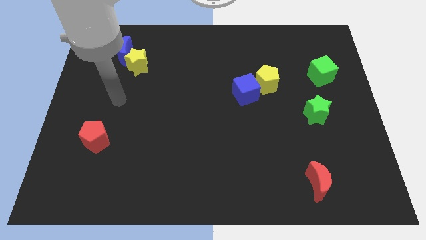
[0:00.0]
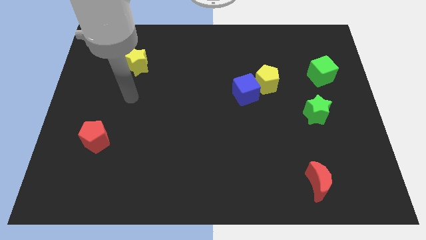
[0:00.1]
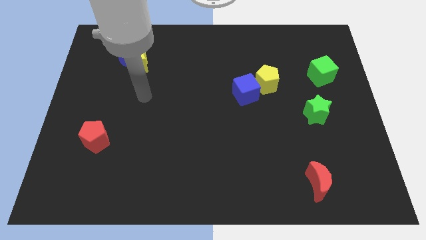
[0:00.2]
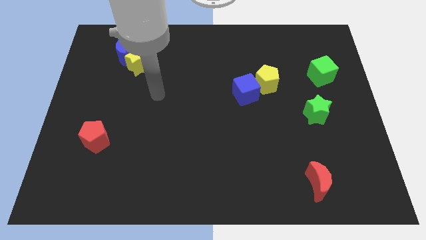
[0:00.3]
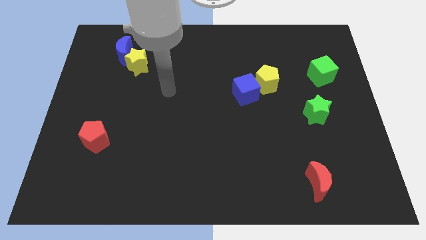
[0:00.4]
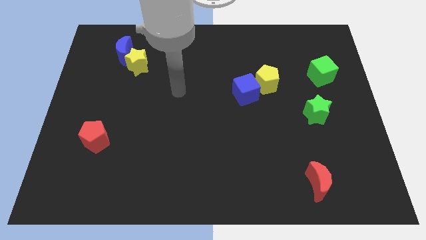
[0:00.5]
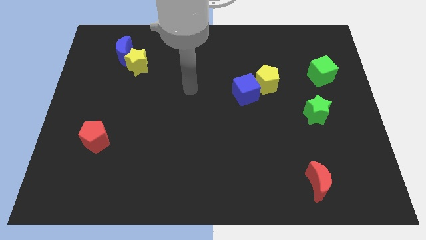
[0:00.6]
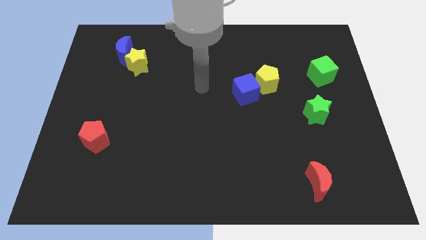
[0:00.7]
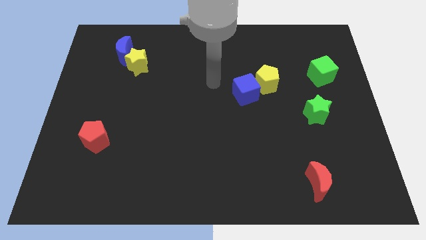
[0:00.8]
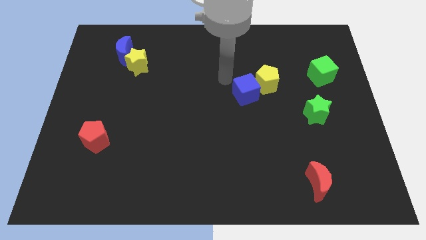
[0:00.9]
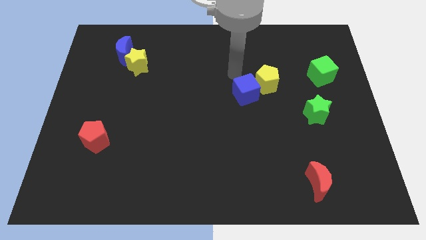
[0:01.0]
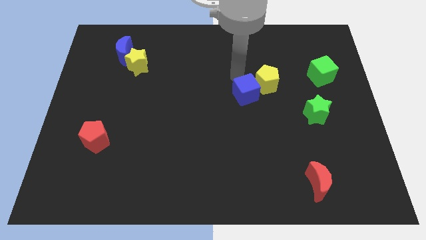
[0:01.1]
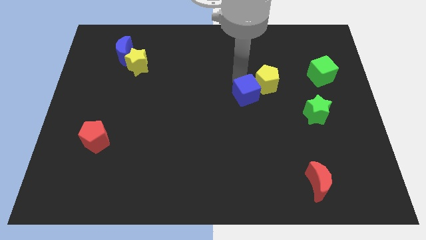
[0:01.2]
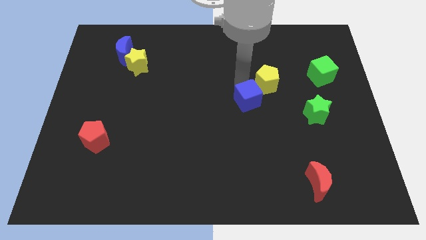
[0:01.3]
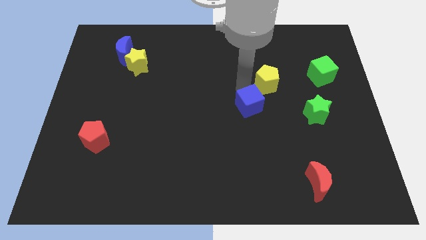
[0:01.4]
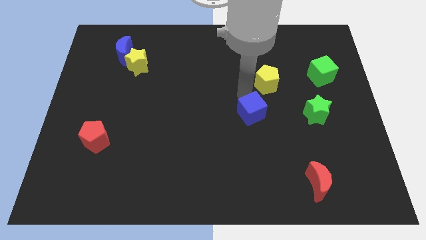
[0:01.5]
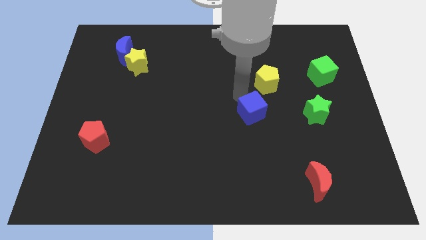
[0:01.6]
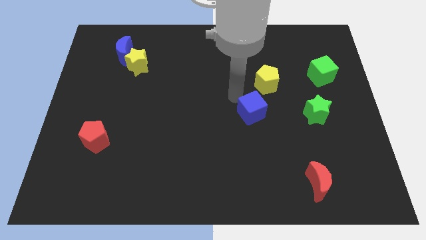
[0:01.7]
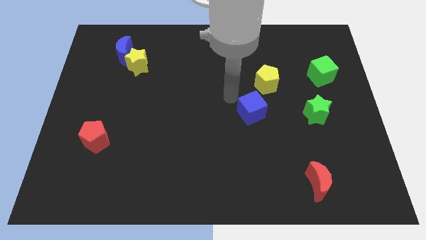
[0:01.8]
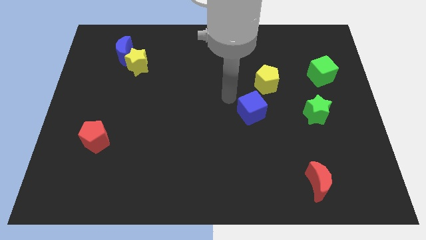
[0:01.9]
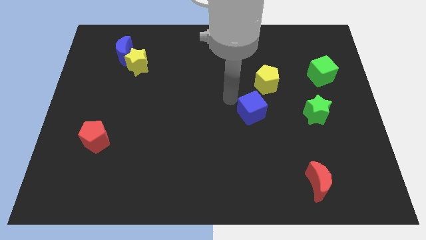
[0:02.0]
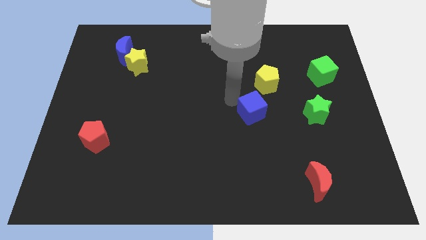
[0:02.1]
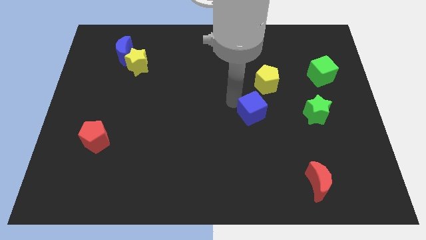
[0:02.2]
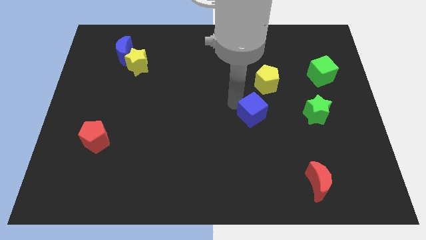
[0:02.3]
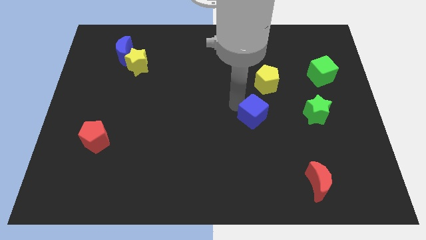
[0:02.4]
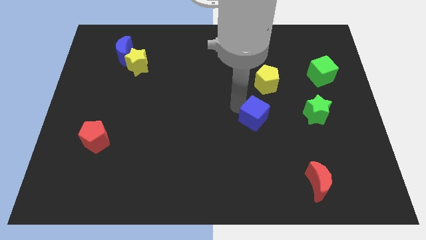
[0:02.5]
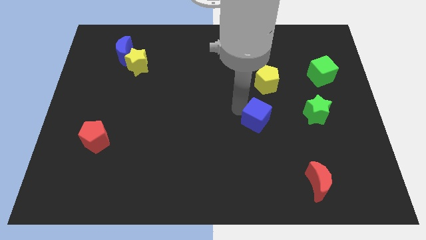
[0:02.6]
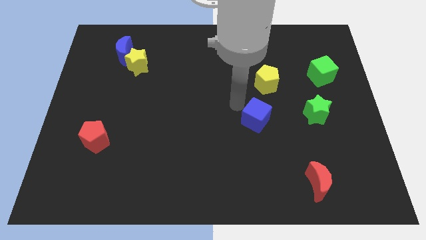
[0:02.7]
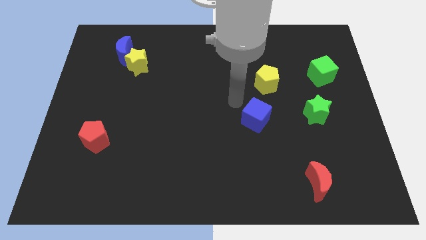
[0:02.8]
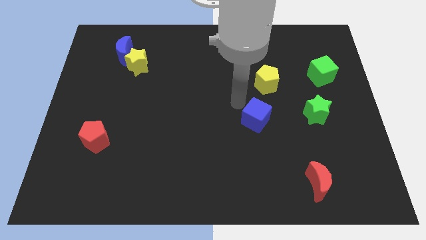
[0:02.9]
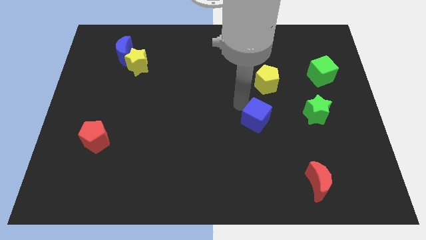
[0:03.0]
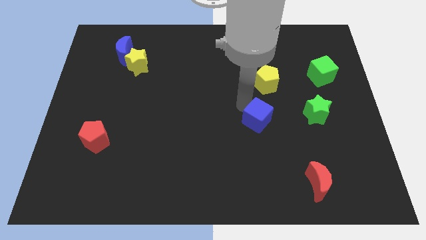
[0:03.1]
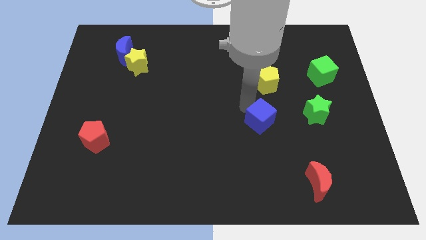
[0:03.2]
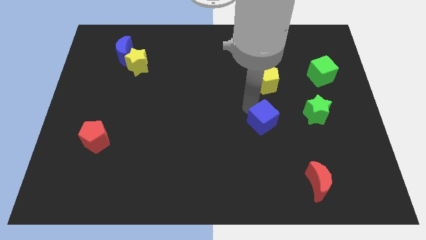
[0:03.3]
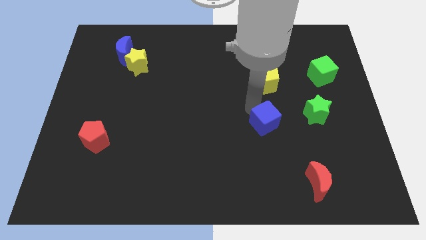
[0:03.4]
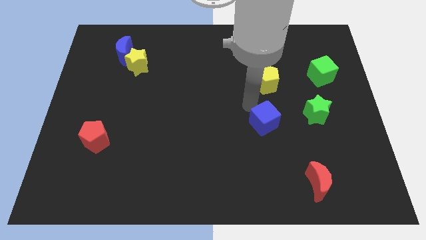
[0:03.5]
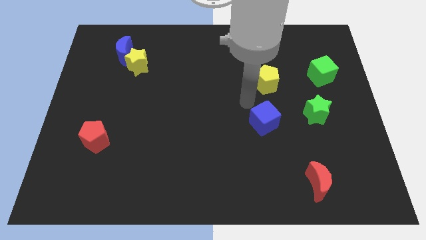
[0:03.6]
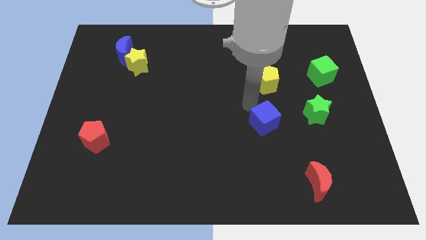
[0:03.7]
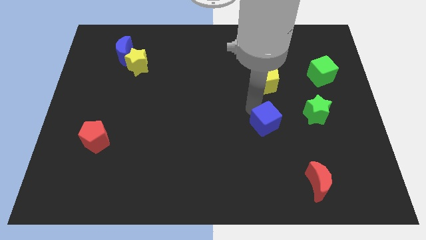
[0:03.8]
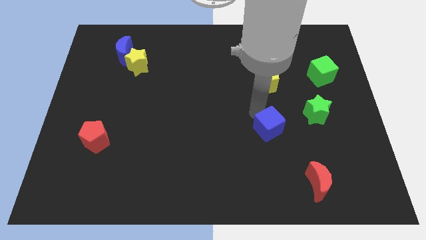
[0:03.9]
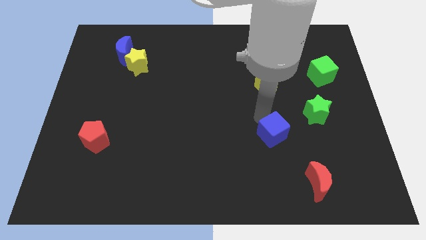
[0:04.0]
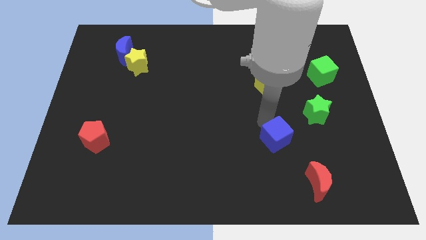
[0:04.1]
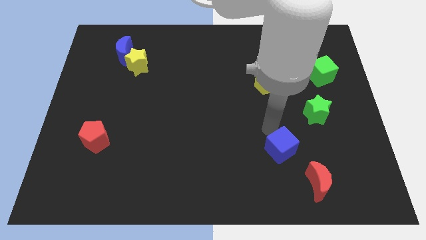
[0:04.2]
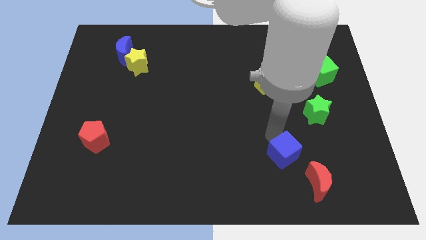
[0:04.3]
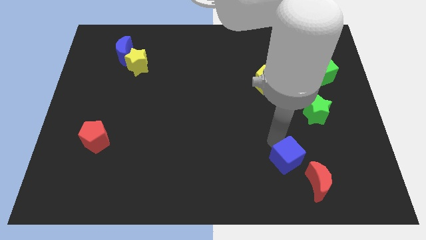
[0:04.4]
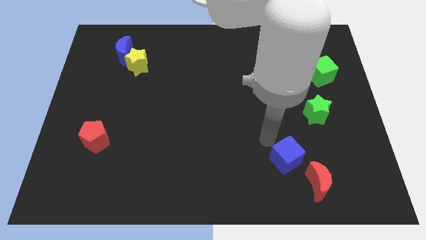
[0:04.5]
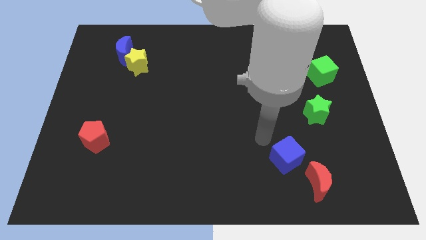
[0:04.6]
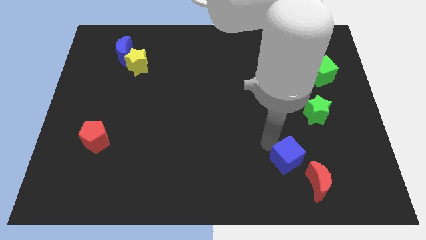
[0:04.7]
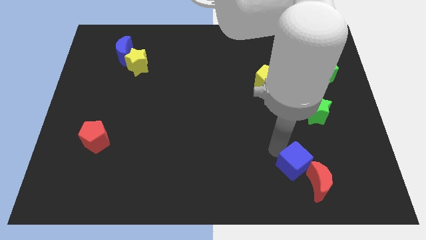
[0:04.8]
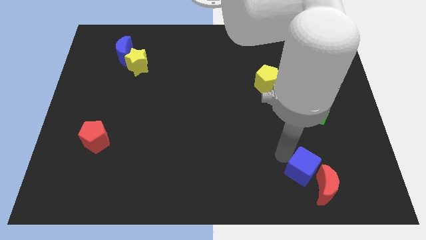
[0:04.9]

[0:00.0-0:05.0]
push the blue cube close to the red moon

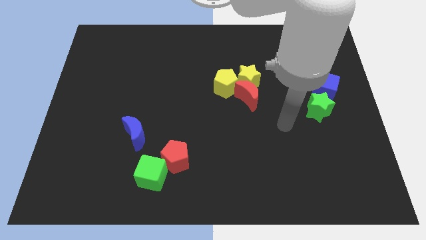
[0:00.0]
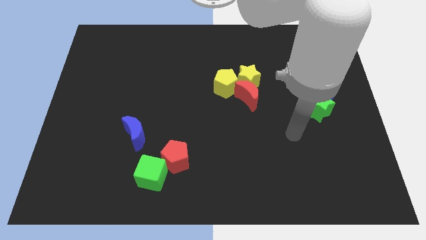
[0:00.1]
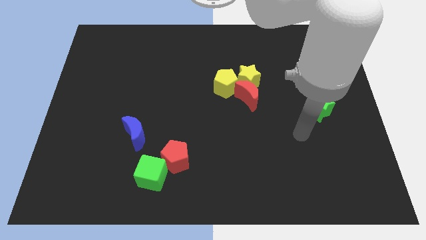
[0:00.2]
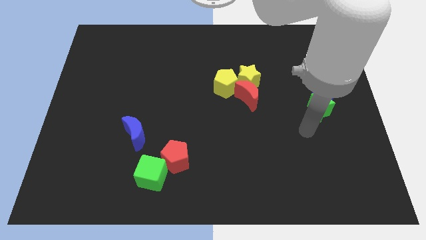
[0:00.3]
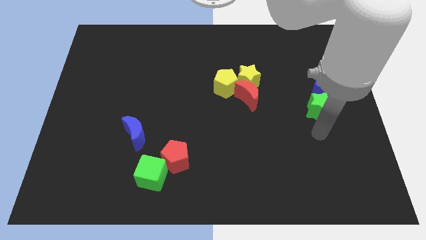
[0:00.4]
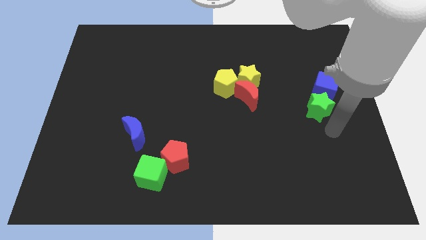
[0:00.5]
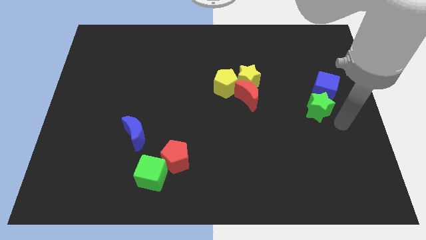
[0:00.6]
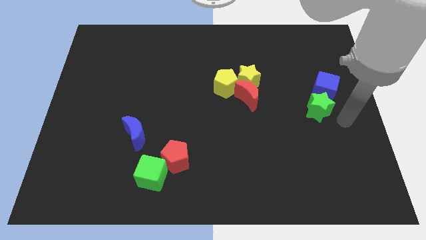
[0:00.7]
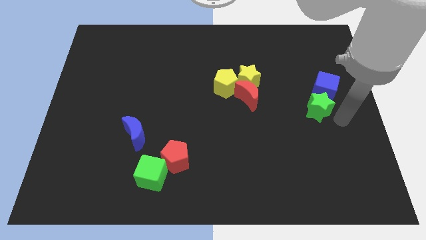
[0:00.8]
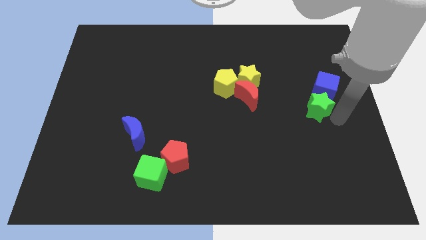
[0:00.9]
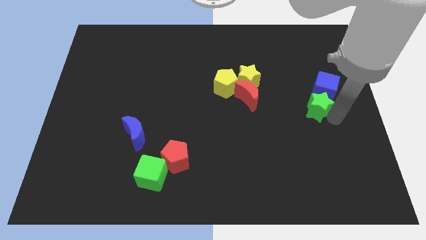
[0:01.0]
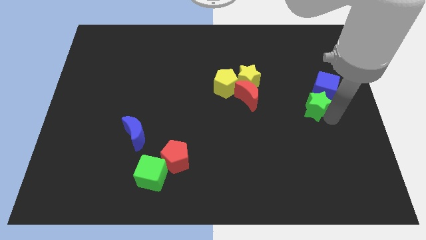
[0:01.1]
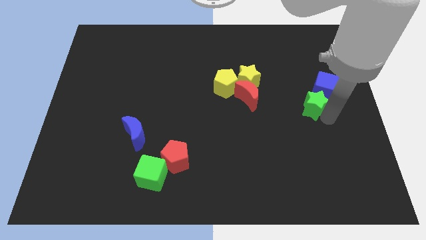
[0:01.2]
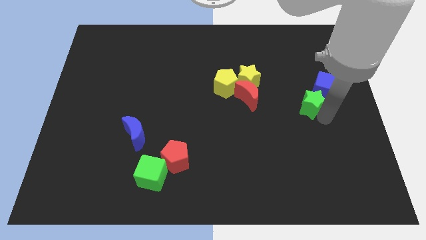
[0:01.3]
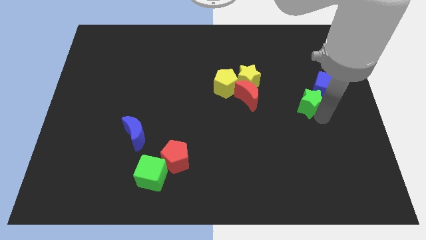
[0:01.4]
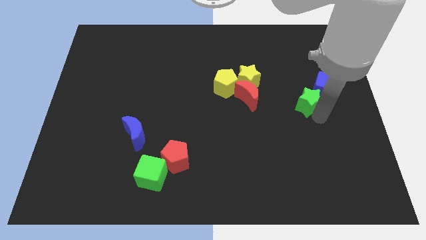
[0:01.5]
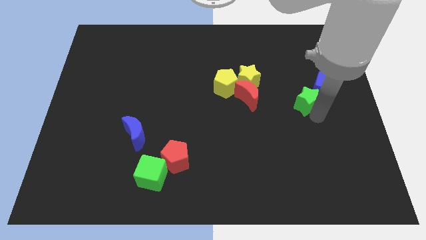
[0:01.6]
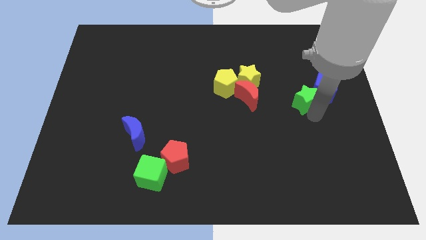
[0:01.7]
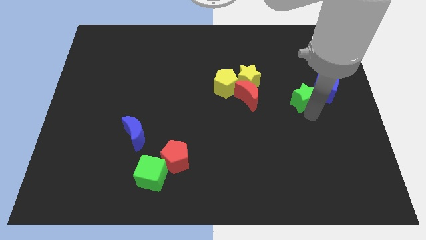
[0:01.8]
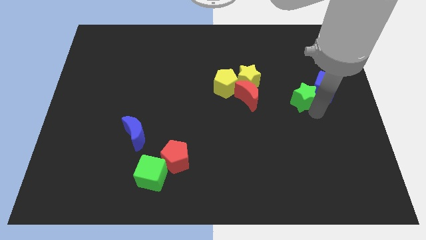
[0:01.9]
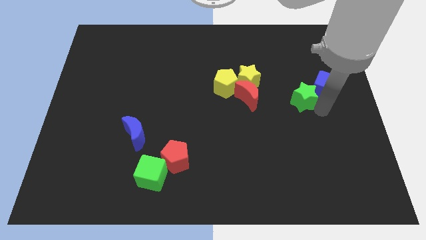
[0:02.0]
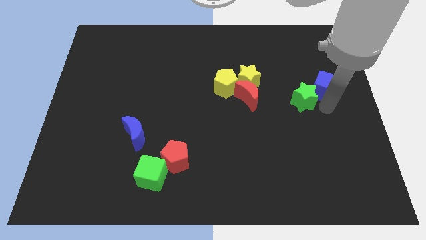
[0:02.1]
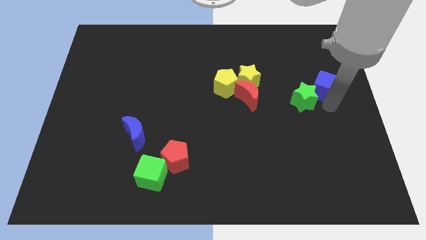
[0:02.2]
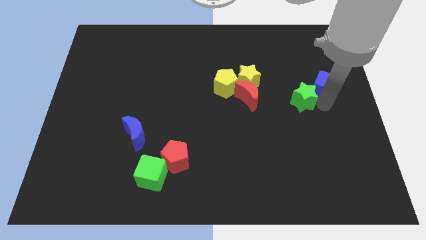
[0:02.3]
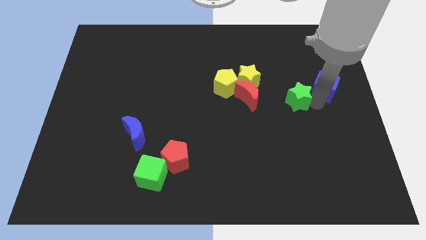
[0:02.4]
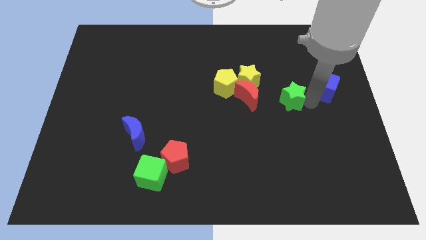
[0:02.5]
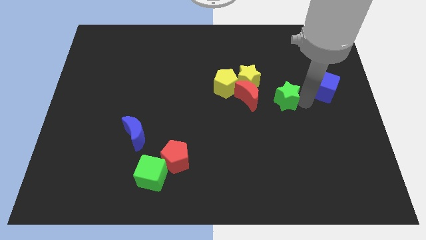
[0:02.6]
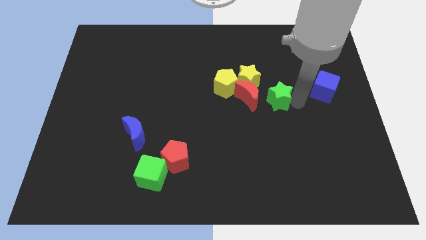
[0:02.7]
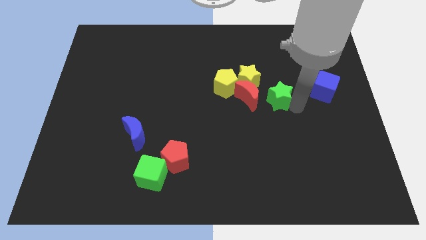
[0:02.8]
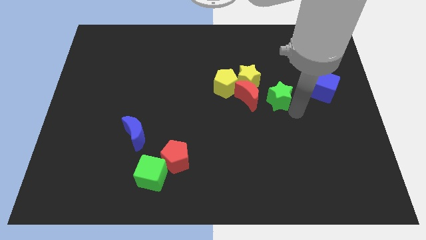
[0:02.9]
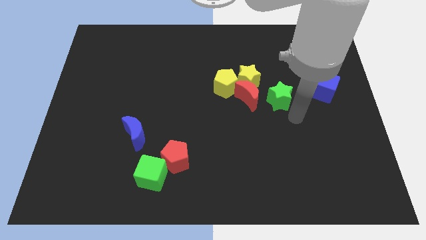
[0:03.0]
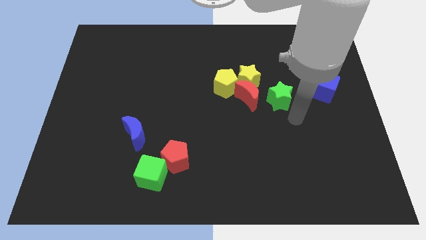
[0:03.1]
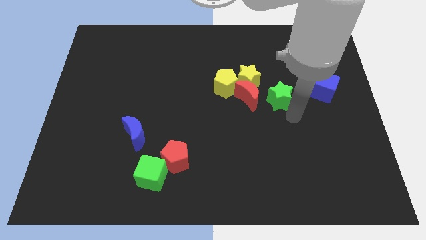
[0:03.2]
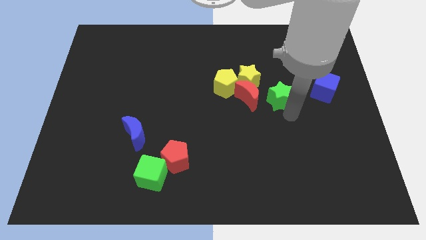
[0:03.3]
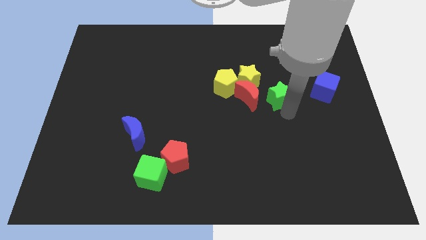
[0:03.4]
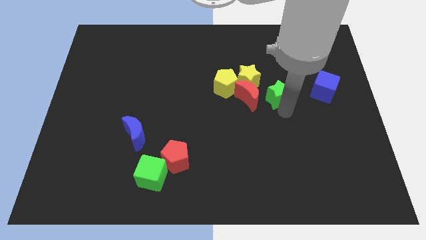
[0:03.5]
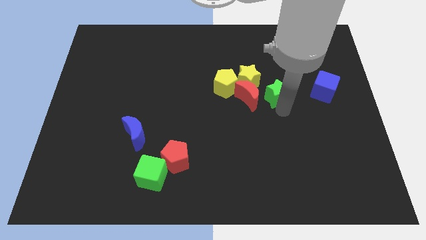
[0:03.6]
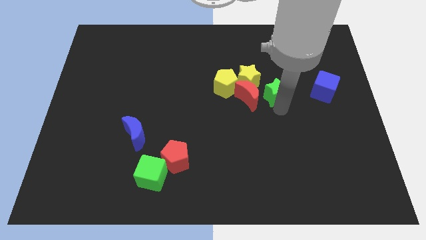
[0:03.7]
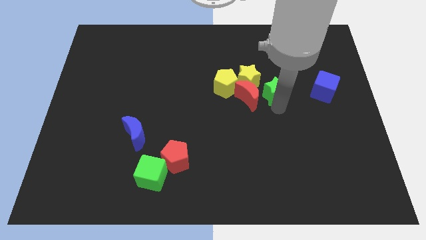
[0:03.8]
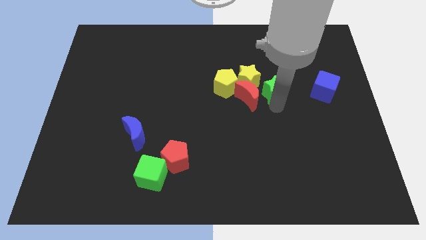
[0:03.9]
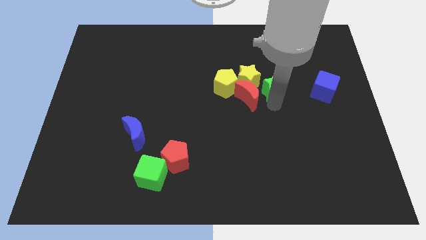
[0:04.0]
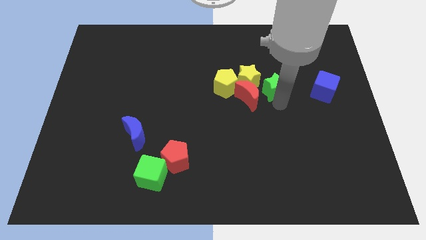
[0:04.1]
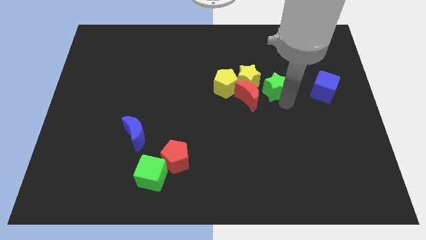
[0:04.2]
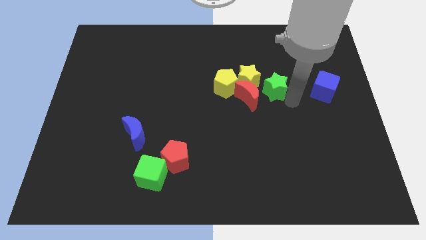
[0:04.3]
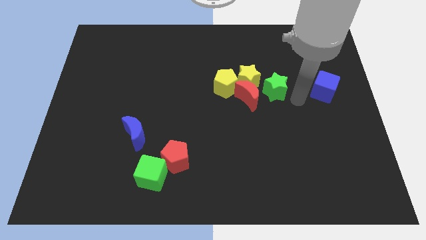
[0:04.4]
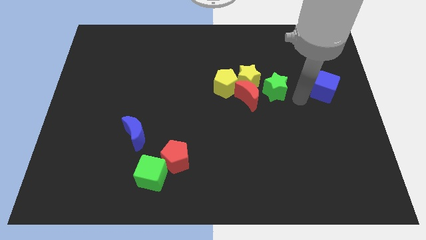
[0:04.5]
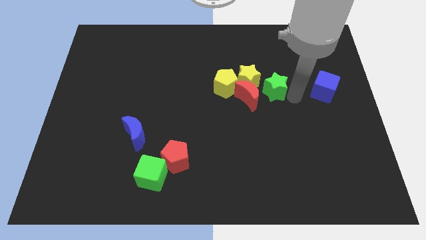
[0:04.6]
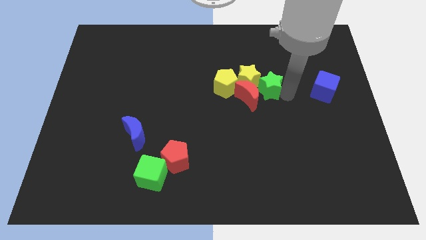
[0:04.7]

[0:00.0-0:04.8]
move the green star close to the yellow star
